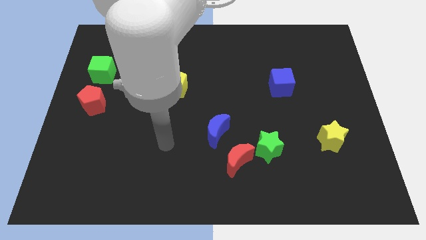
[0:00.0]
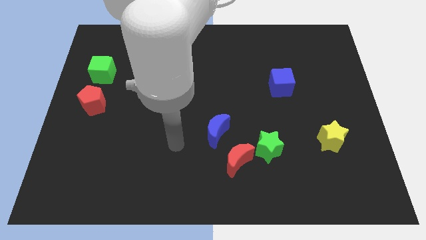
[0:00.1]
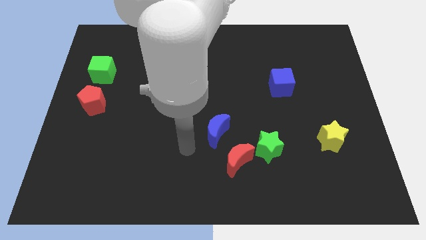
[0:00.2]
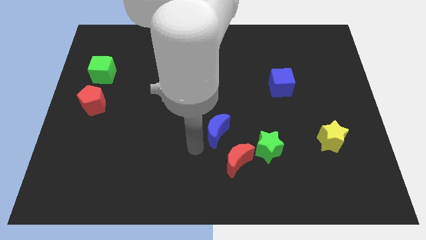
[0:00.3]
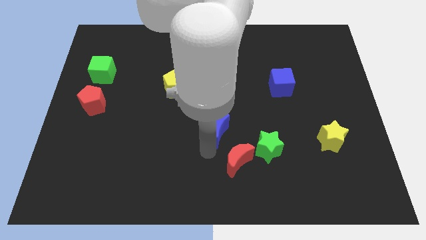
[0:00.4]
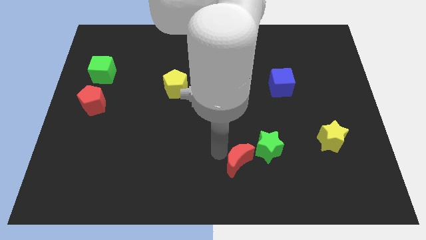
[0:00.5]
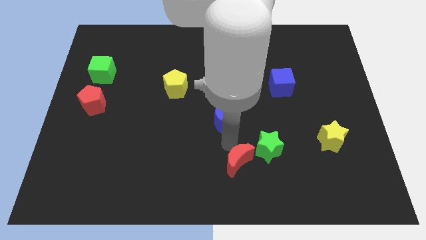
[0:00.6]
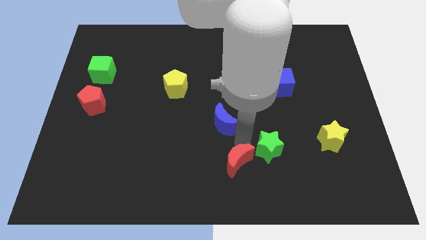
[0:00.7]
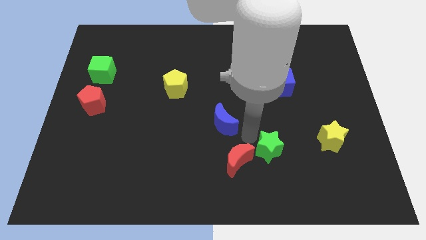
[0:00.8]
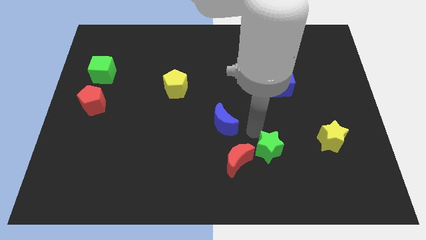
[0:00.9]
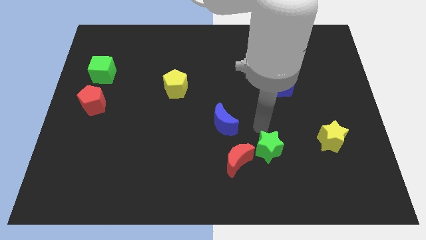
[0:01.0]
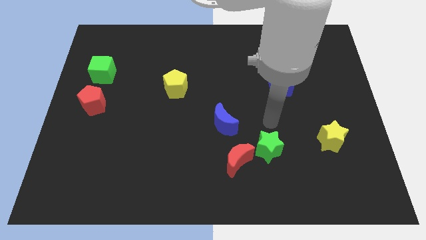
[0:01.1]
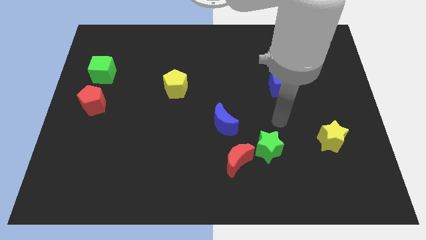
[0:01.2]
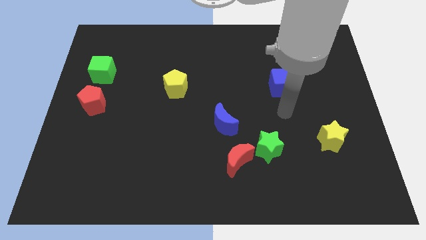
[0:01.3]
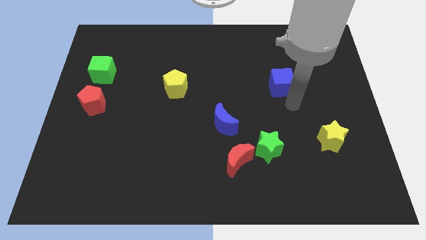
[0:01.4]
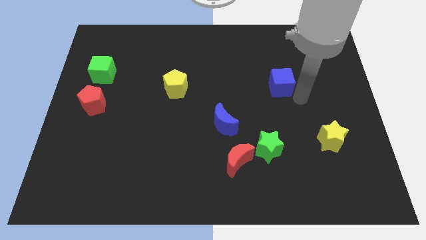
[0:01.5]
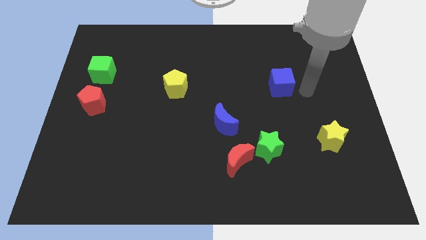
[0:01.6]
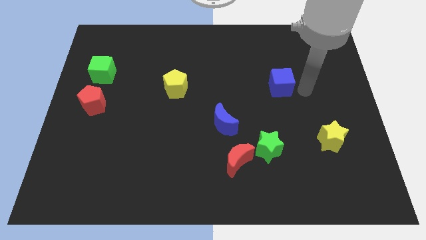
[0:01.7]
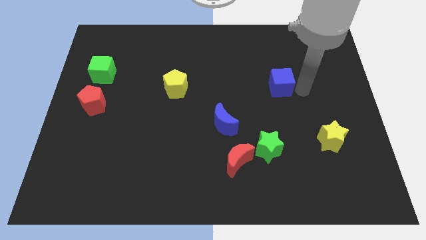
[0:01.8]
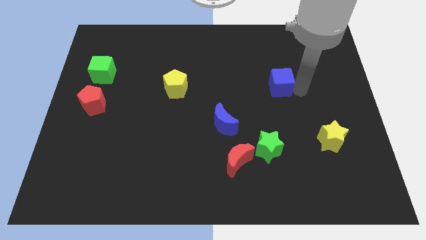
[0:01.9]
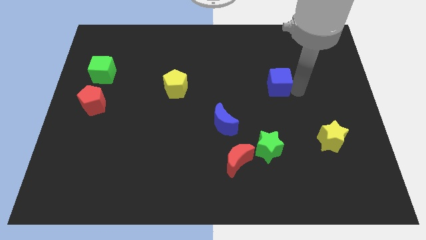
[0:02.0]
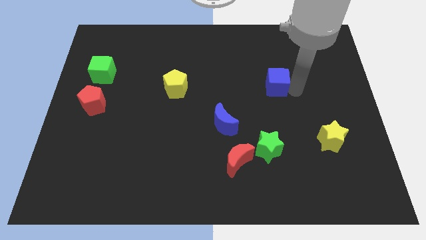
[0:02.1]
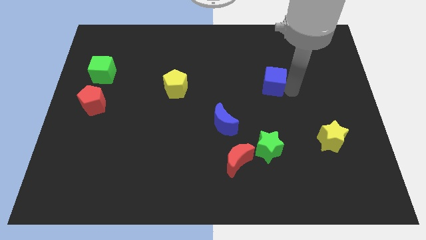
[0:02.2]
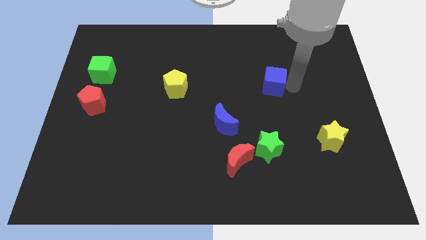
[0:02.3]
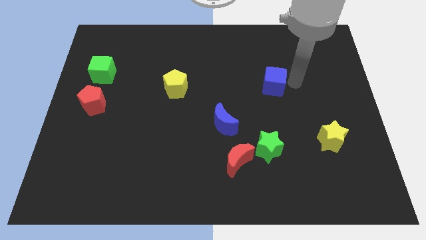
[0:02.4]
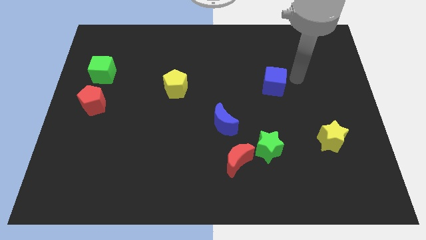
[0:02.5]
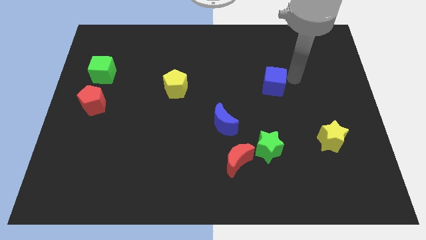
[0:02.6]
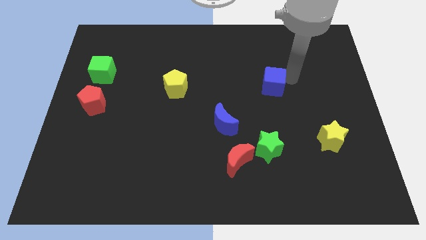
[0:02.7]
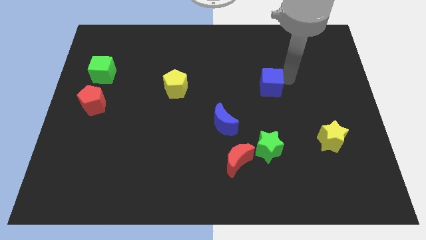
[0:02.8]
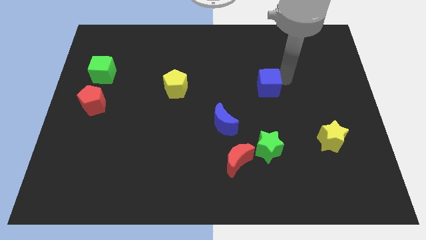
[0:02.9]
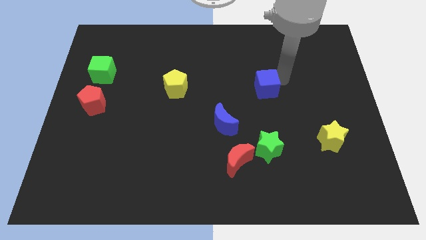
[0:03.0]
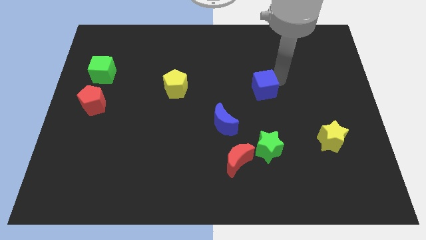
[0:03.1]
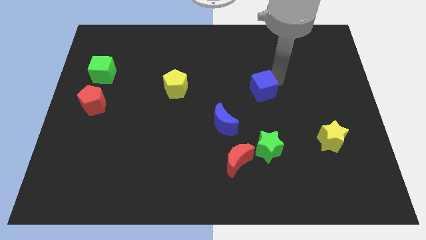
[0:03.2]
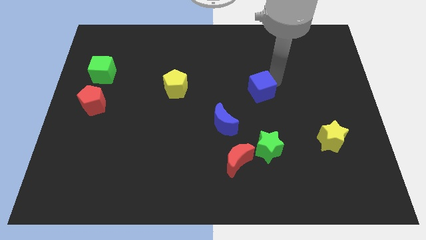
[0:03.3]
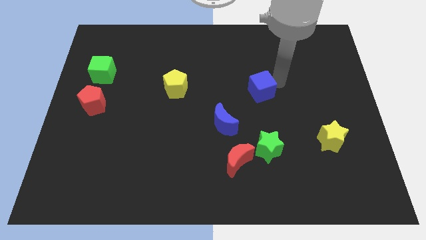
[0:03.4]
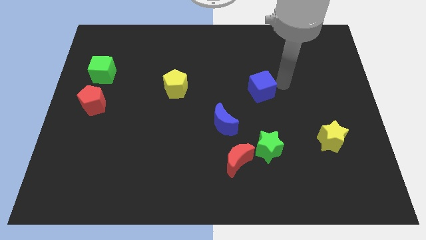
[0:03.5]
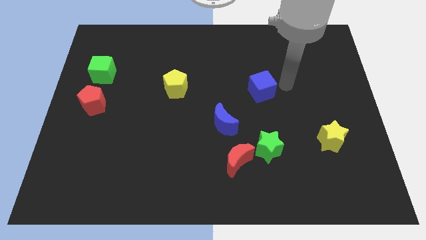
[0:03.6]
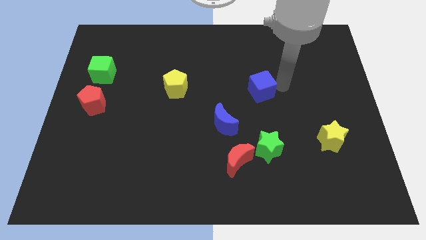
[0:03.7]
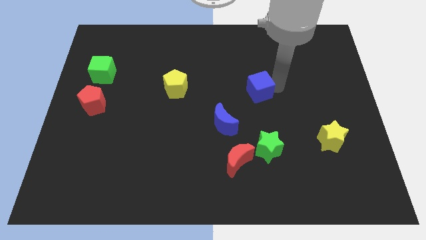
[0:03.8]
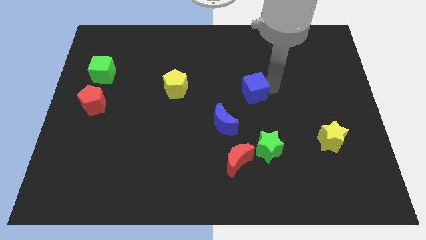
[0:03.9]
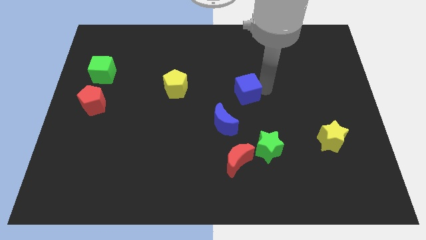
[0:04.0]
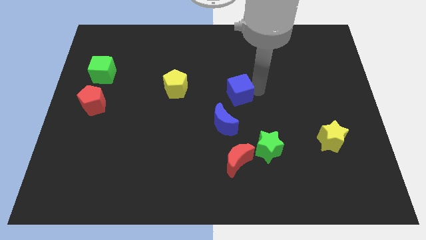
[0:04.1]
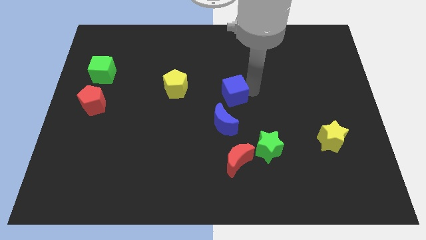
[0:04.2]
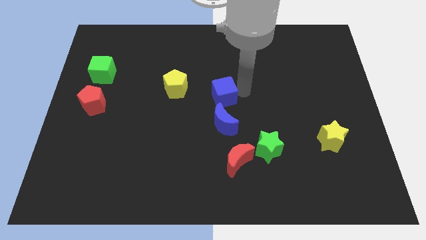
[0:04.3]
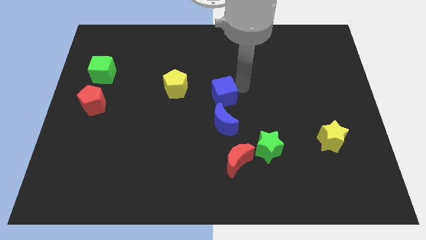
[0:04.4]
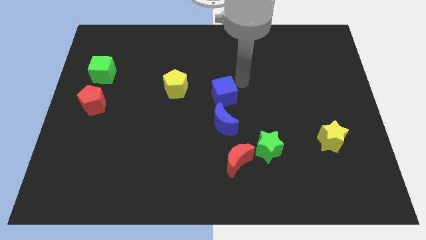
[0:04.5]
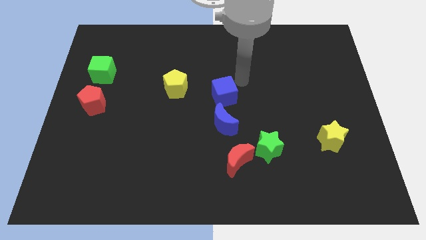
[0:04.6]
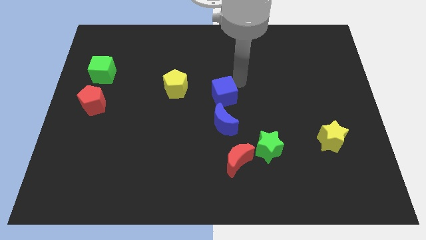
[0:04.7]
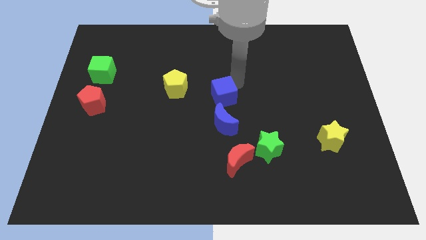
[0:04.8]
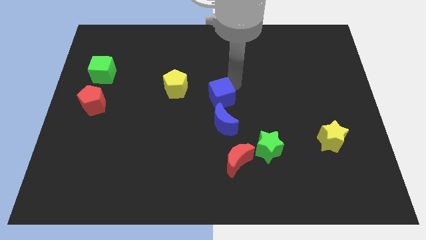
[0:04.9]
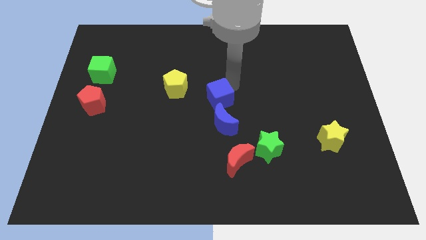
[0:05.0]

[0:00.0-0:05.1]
push the blue cube to the top left of the blue moon

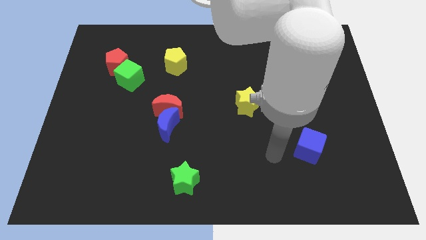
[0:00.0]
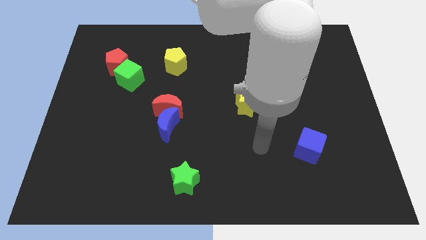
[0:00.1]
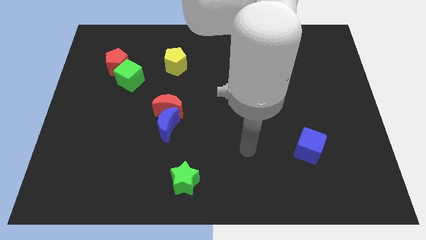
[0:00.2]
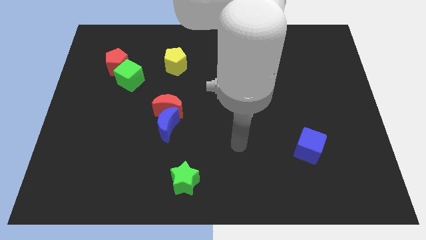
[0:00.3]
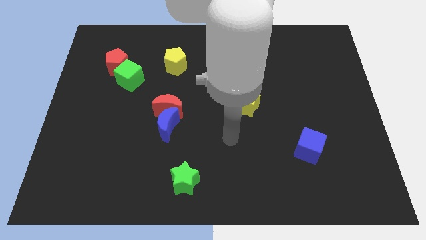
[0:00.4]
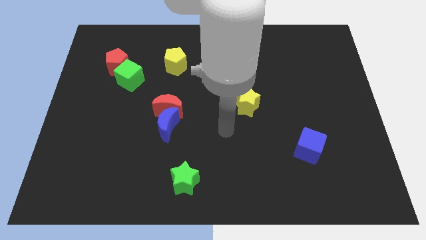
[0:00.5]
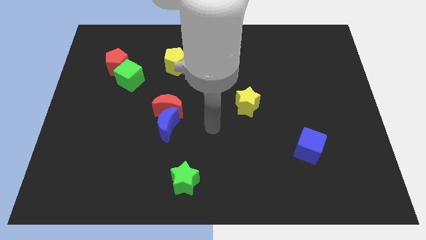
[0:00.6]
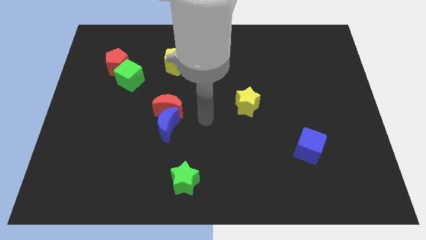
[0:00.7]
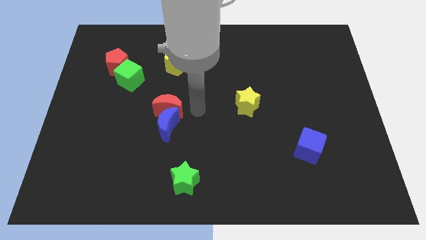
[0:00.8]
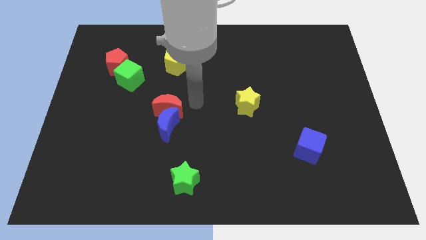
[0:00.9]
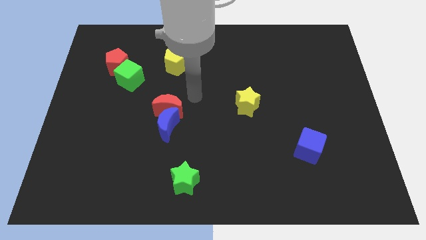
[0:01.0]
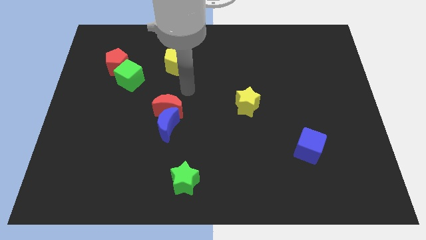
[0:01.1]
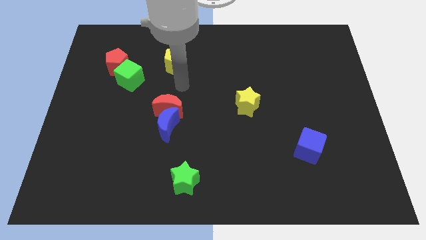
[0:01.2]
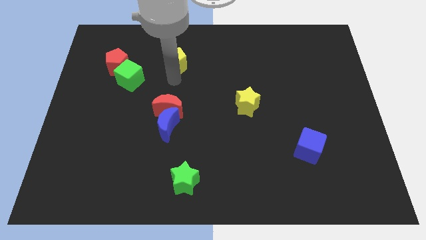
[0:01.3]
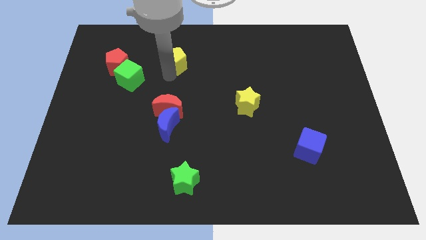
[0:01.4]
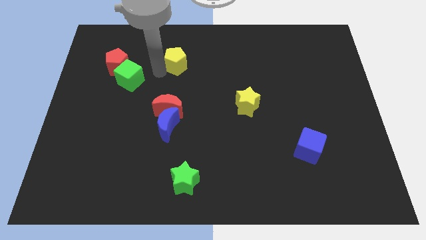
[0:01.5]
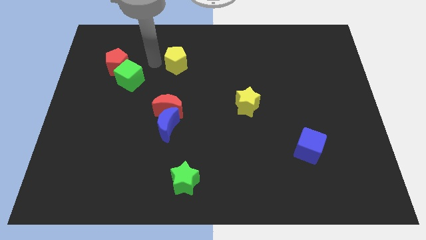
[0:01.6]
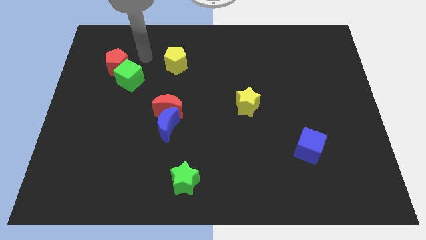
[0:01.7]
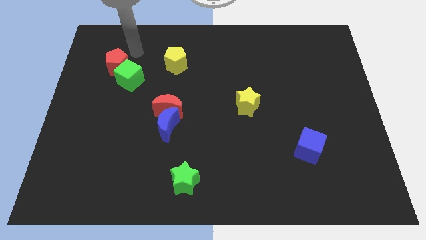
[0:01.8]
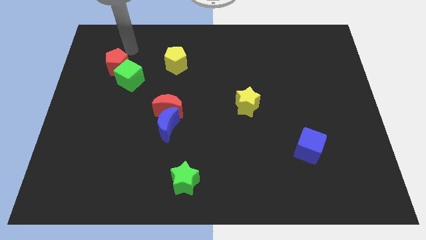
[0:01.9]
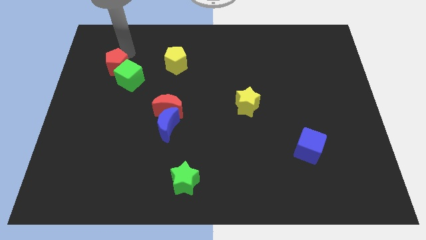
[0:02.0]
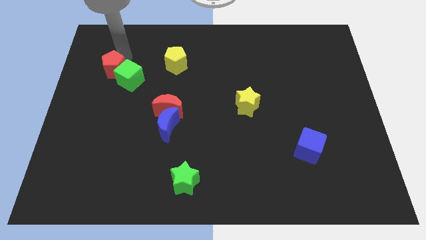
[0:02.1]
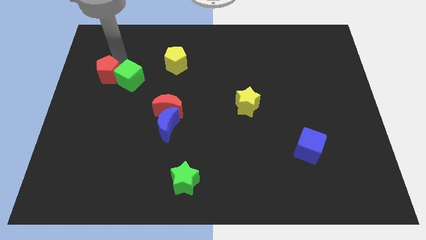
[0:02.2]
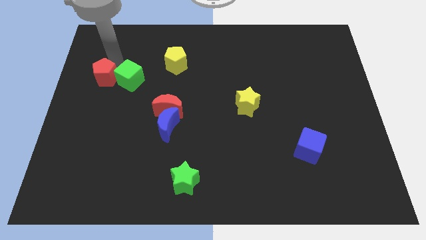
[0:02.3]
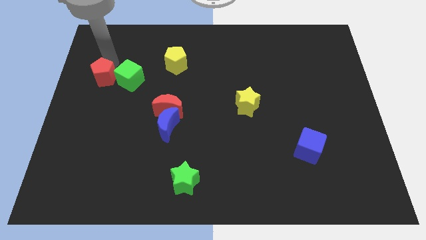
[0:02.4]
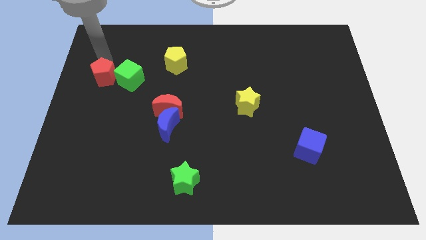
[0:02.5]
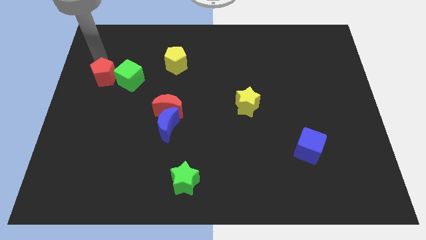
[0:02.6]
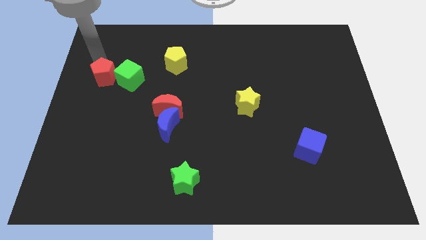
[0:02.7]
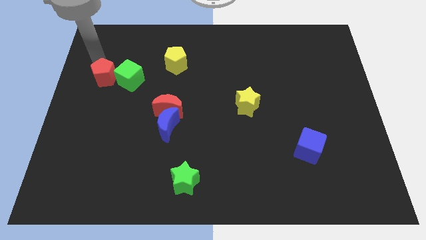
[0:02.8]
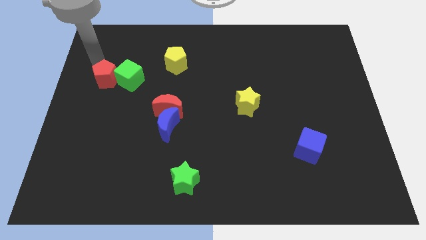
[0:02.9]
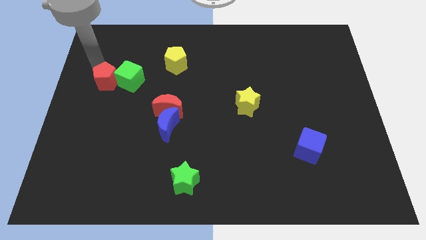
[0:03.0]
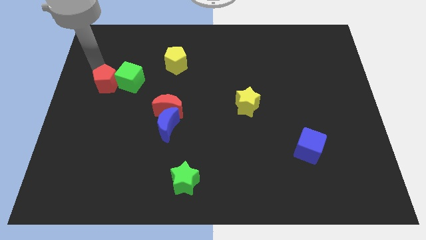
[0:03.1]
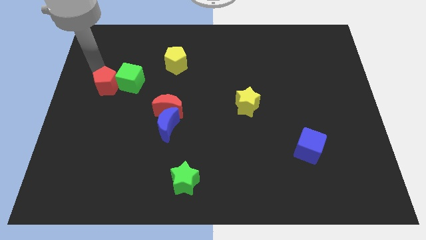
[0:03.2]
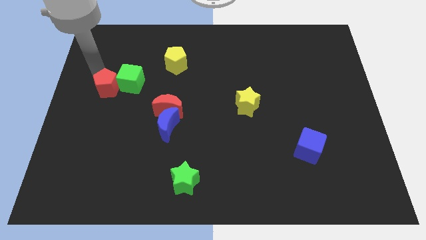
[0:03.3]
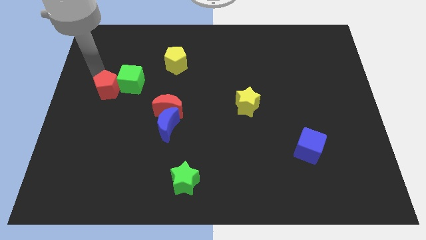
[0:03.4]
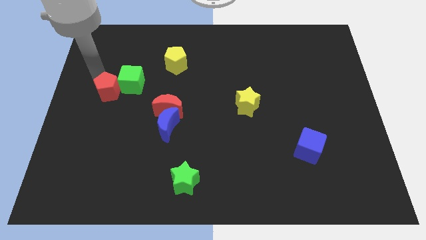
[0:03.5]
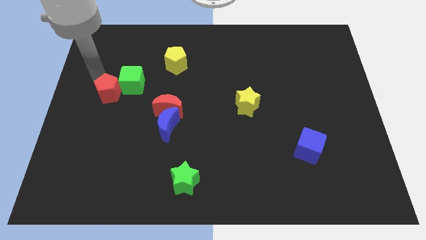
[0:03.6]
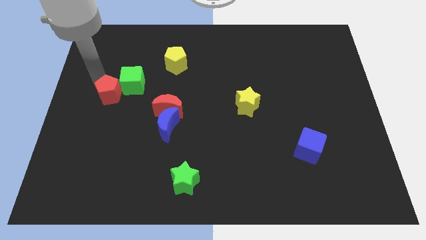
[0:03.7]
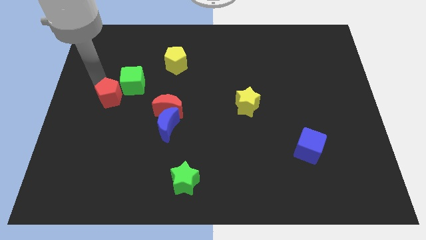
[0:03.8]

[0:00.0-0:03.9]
move the red pentagon to the left of the red moon
